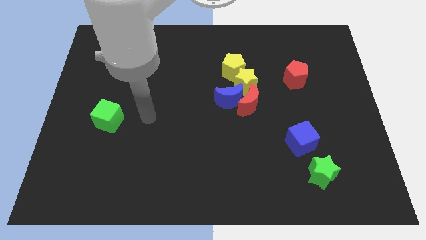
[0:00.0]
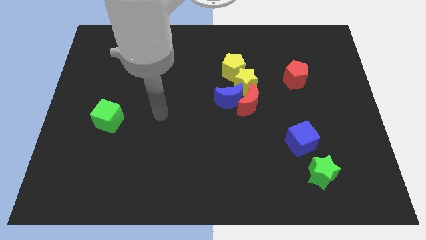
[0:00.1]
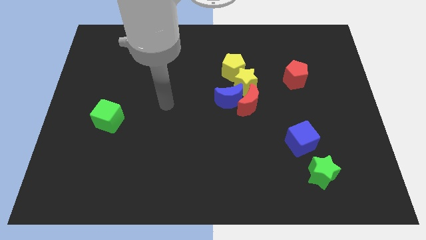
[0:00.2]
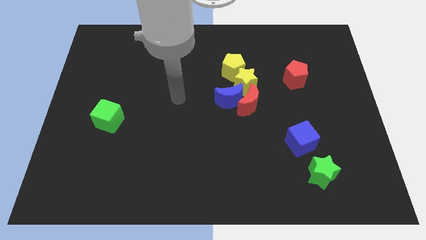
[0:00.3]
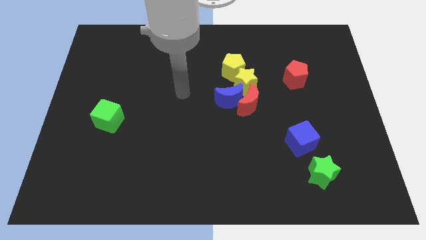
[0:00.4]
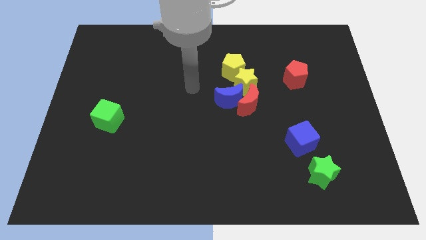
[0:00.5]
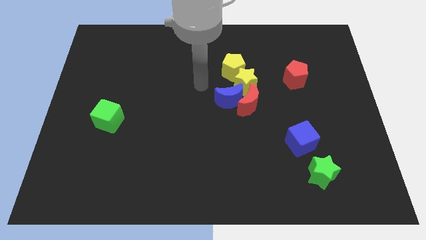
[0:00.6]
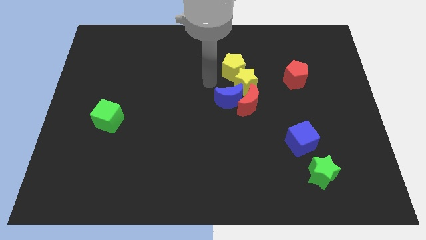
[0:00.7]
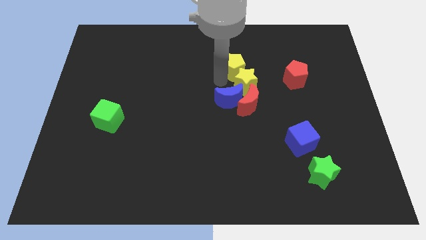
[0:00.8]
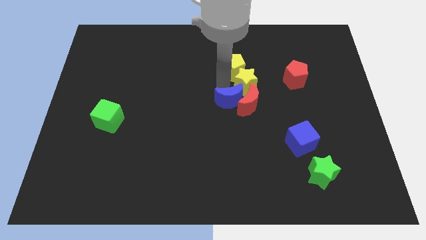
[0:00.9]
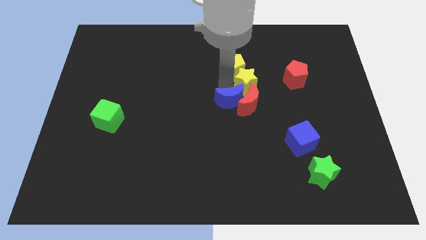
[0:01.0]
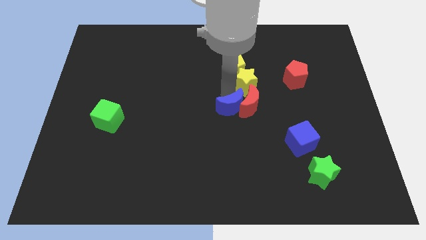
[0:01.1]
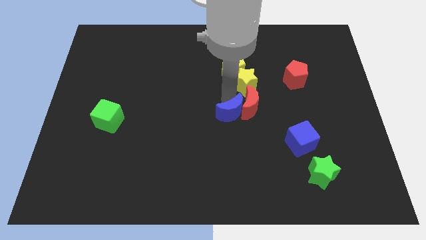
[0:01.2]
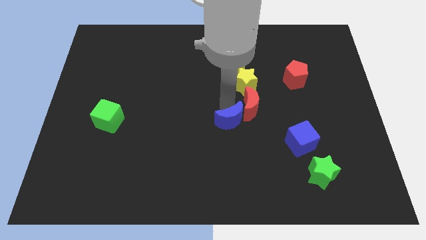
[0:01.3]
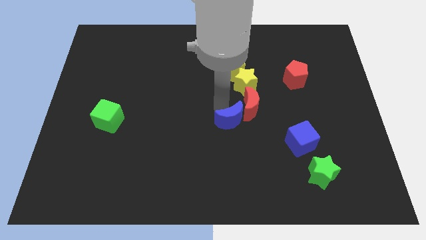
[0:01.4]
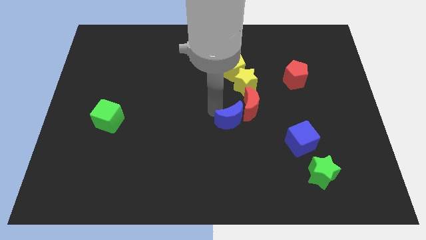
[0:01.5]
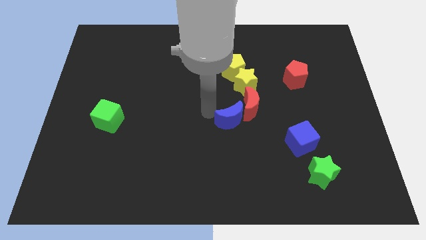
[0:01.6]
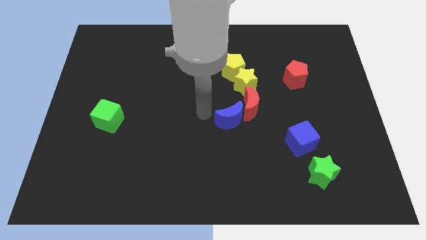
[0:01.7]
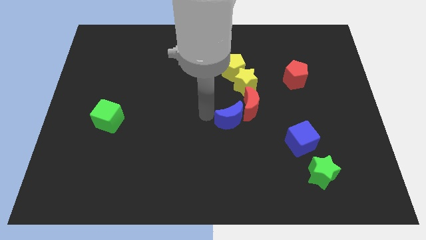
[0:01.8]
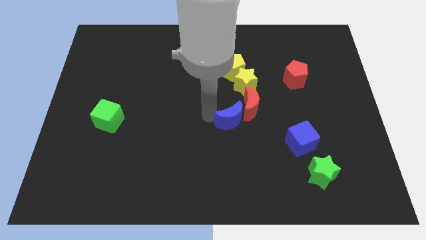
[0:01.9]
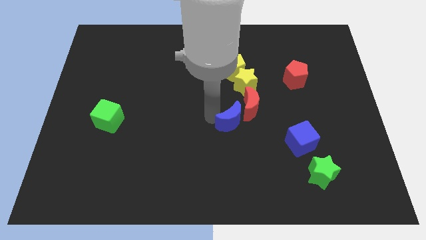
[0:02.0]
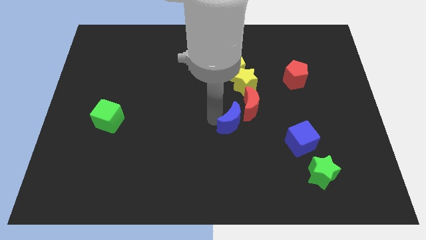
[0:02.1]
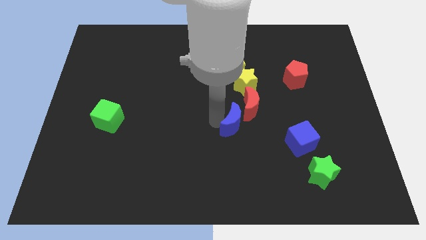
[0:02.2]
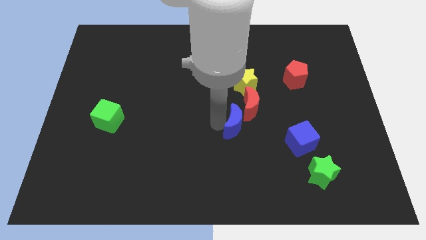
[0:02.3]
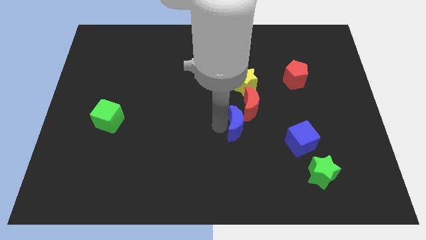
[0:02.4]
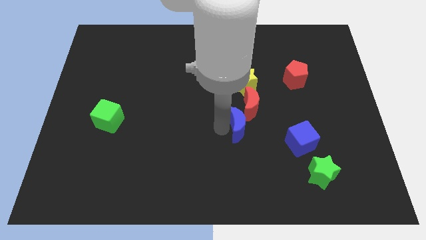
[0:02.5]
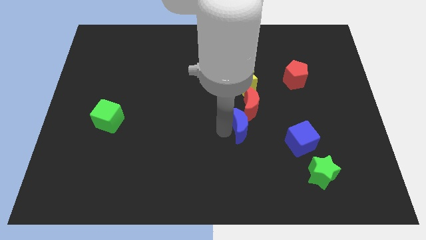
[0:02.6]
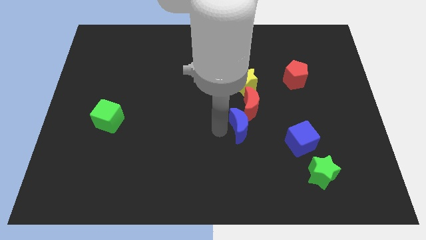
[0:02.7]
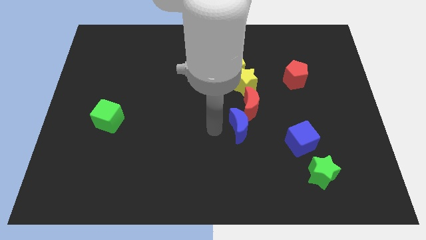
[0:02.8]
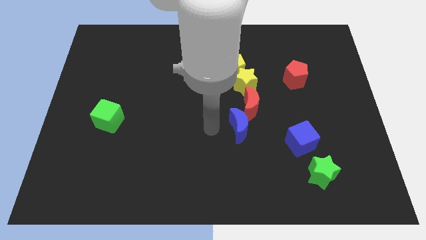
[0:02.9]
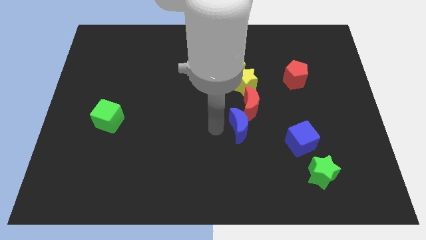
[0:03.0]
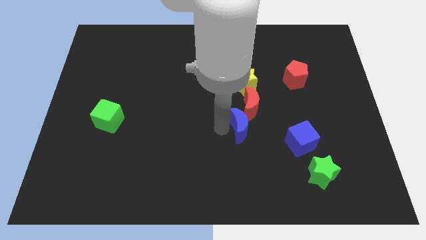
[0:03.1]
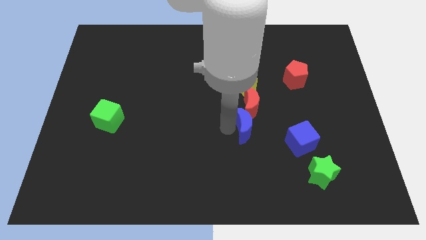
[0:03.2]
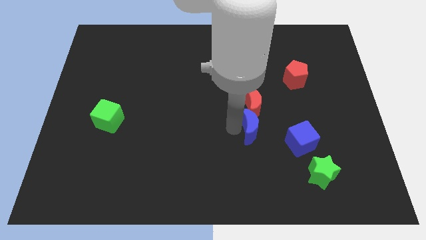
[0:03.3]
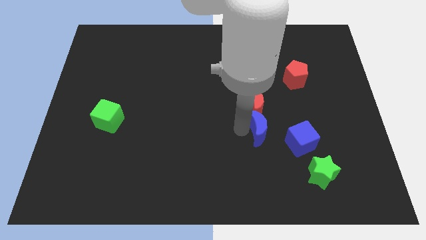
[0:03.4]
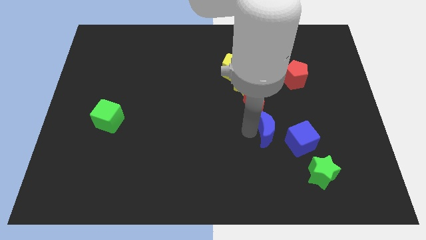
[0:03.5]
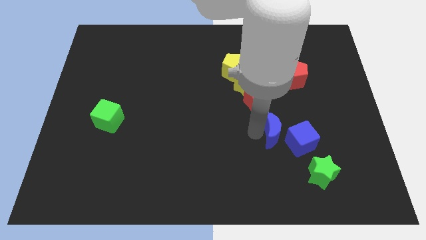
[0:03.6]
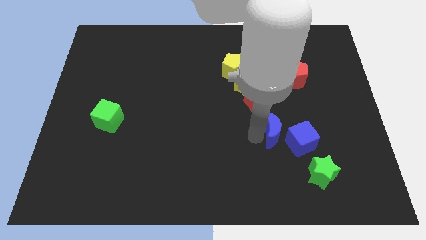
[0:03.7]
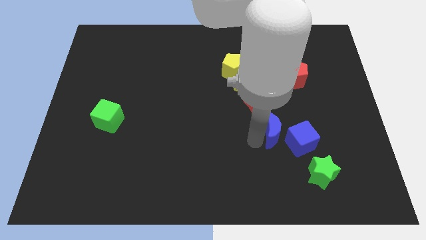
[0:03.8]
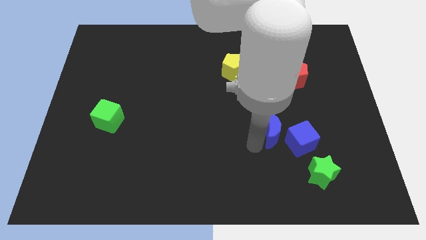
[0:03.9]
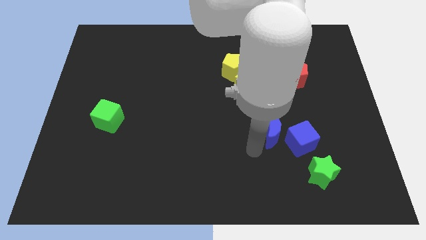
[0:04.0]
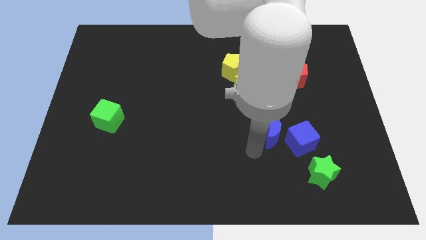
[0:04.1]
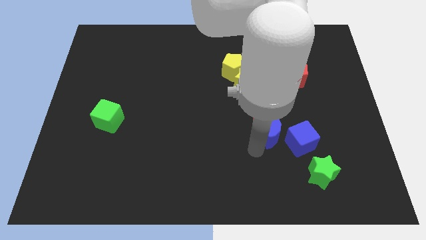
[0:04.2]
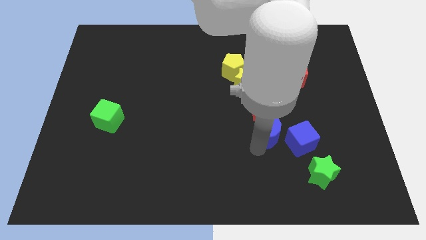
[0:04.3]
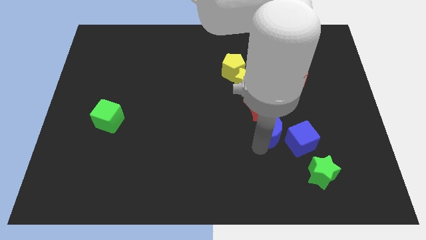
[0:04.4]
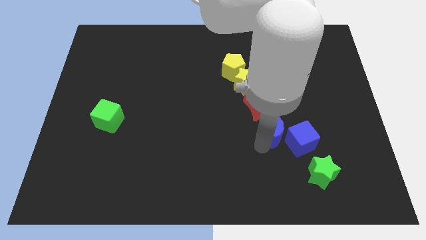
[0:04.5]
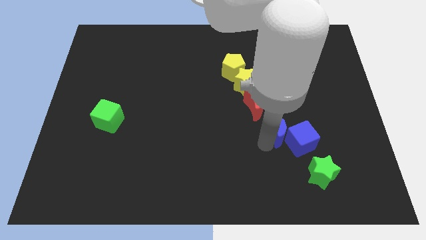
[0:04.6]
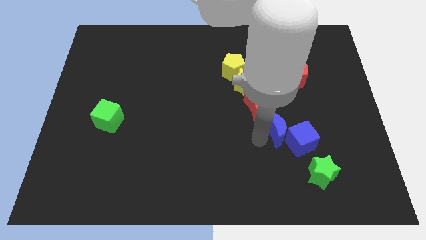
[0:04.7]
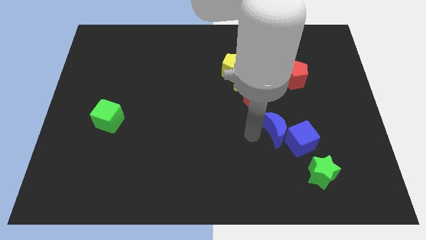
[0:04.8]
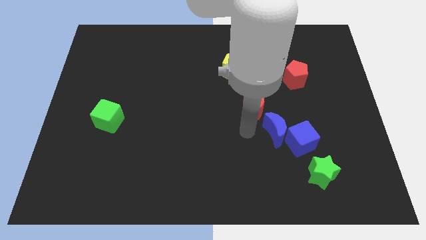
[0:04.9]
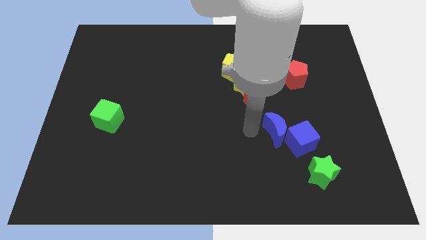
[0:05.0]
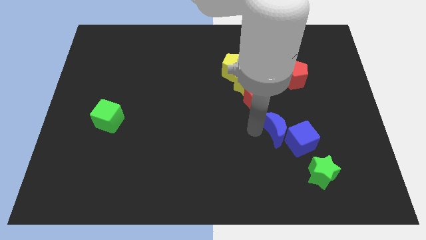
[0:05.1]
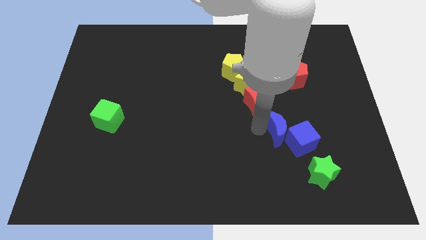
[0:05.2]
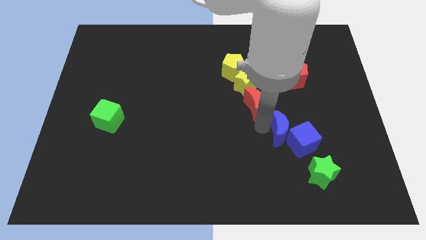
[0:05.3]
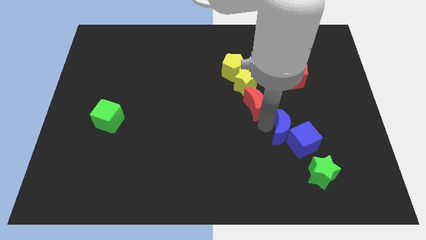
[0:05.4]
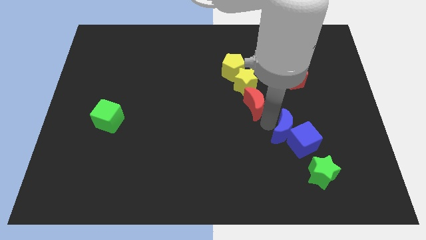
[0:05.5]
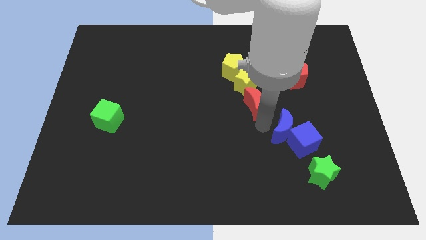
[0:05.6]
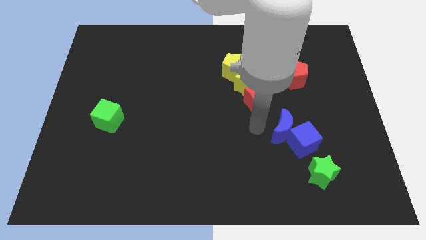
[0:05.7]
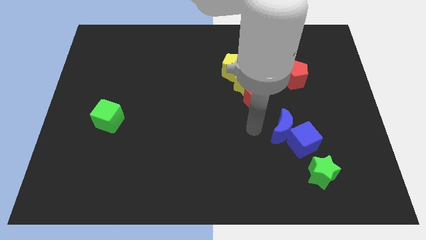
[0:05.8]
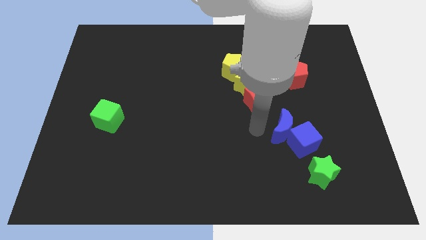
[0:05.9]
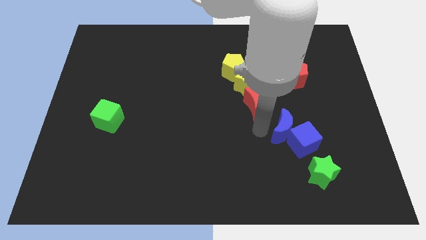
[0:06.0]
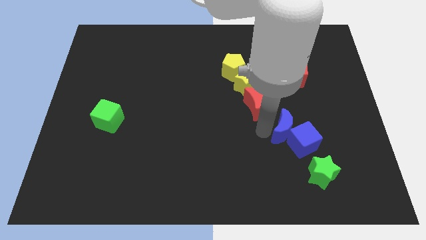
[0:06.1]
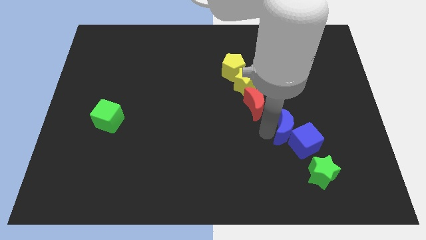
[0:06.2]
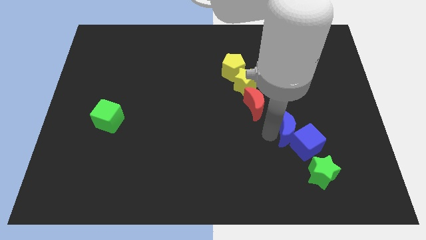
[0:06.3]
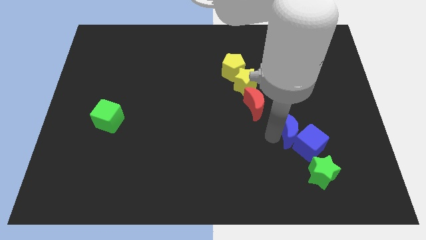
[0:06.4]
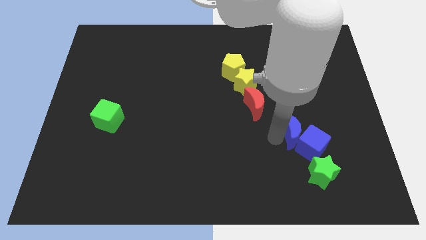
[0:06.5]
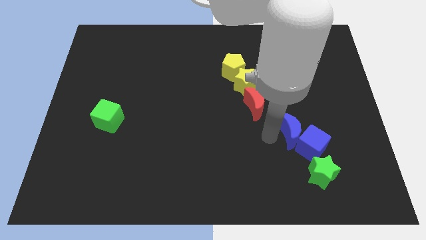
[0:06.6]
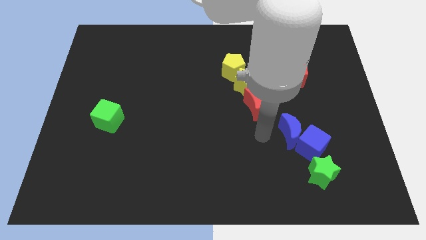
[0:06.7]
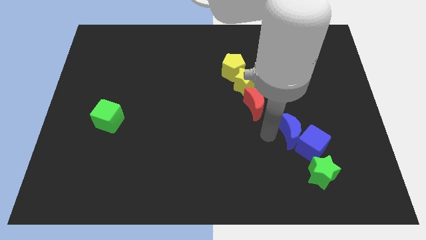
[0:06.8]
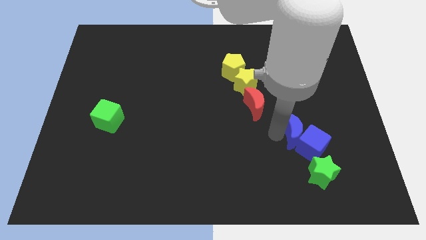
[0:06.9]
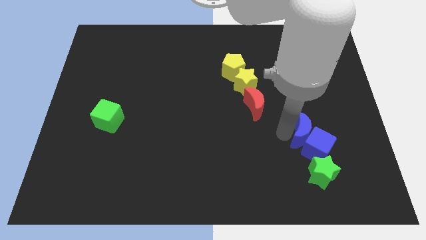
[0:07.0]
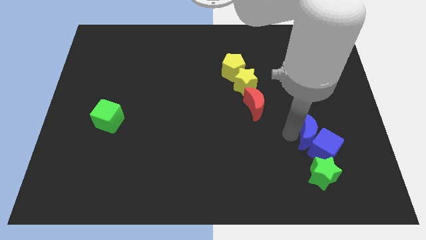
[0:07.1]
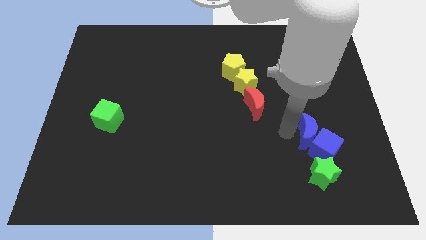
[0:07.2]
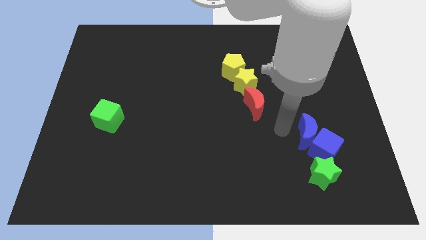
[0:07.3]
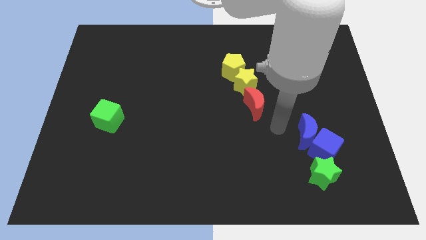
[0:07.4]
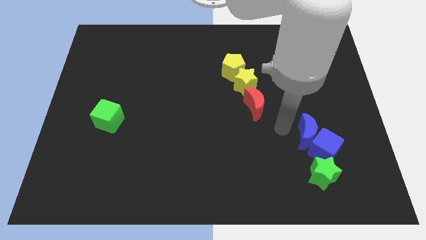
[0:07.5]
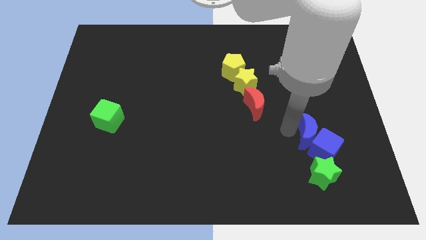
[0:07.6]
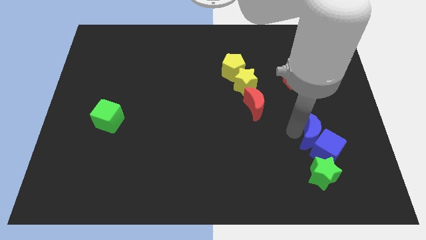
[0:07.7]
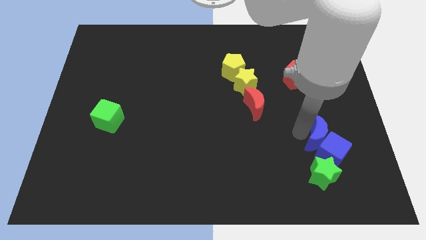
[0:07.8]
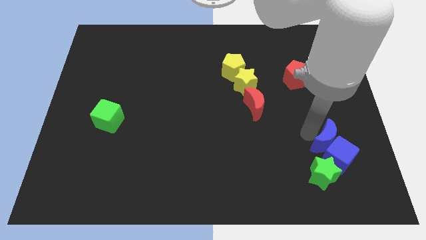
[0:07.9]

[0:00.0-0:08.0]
put the blue moon to the top right of the green star
